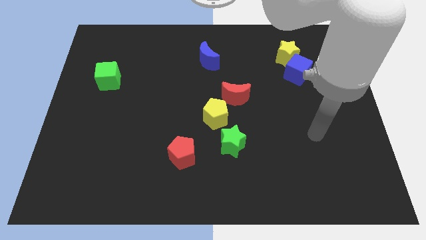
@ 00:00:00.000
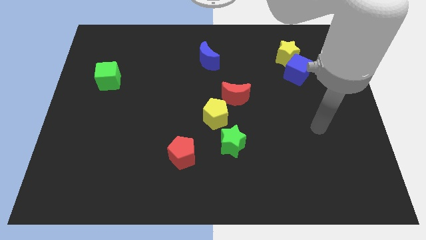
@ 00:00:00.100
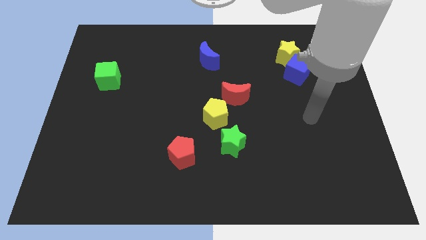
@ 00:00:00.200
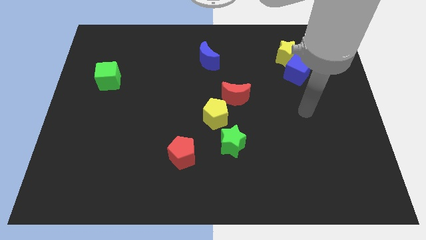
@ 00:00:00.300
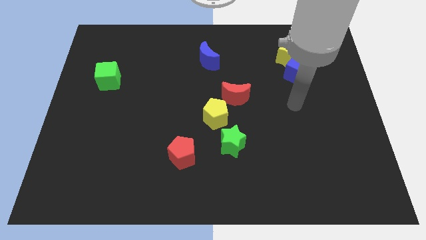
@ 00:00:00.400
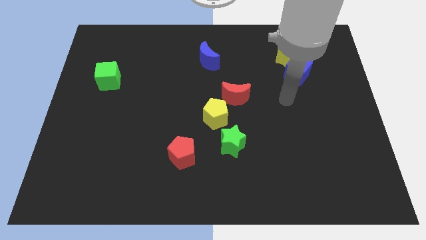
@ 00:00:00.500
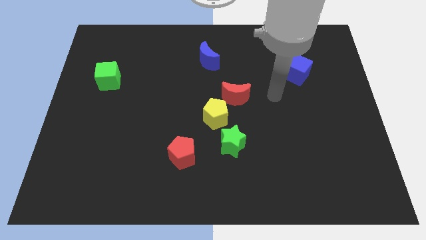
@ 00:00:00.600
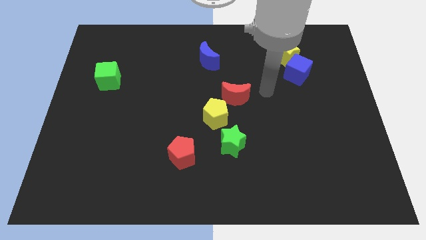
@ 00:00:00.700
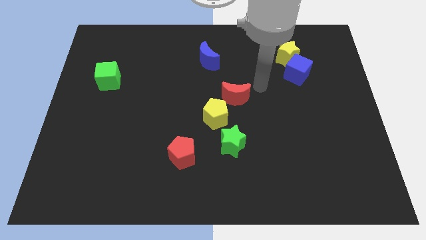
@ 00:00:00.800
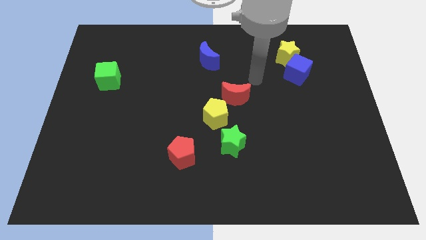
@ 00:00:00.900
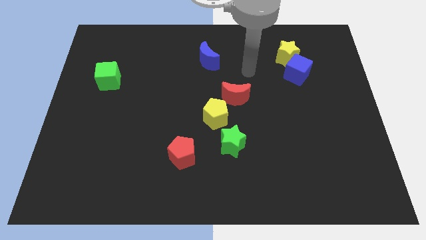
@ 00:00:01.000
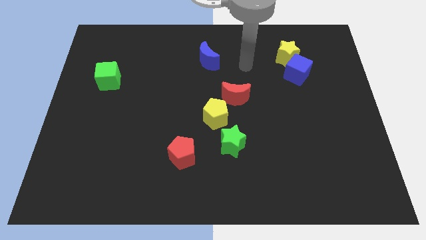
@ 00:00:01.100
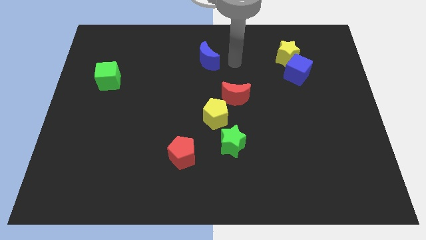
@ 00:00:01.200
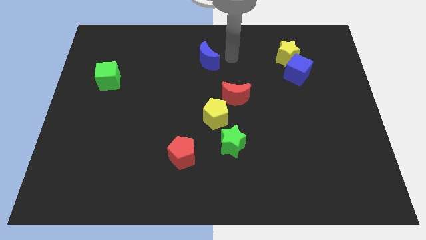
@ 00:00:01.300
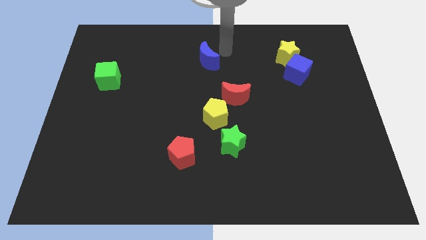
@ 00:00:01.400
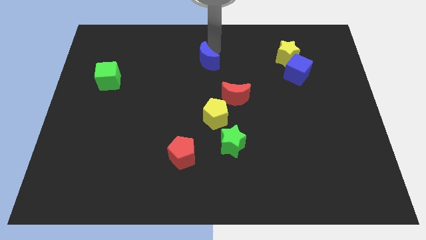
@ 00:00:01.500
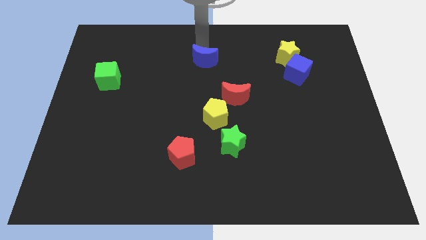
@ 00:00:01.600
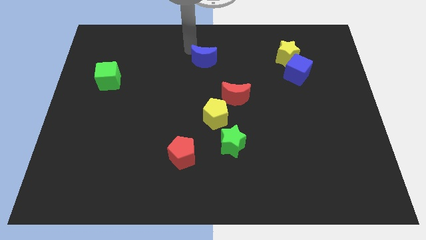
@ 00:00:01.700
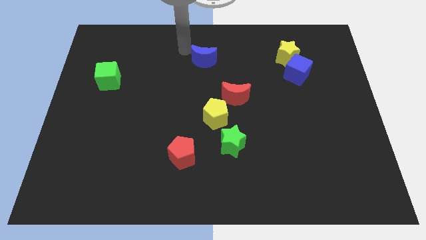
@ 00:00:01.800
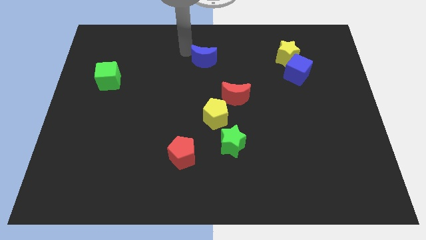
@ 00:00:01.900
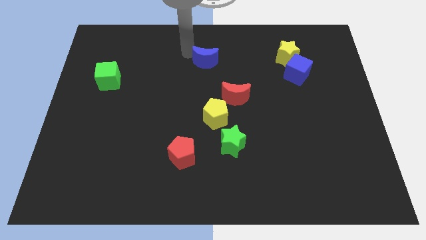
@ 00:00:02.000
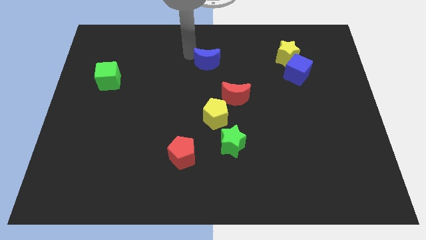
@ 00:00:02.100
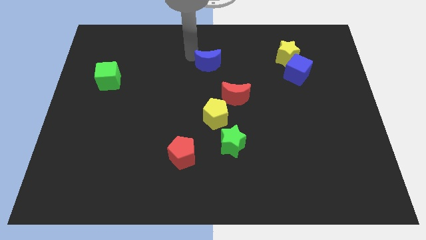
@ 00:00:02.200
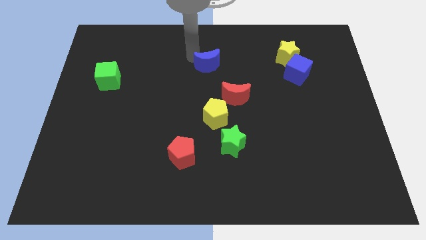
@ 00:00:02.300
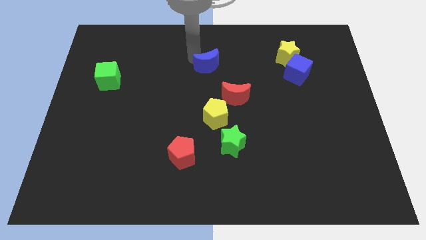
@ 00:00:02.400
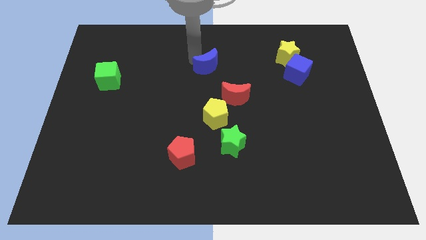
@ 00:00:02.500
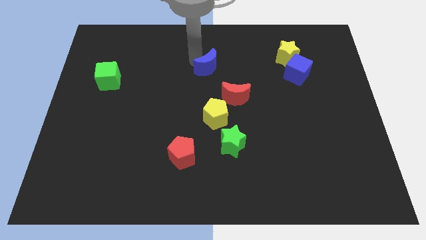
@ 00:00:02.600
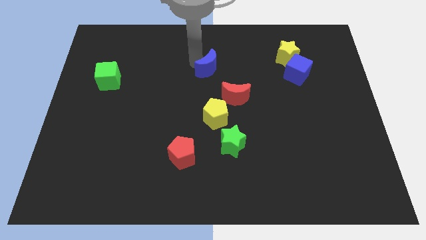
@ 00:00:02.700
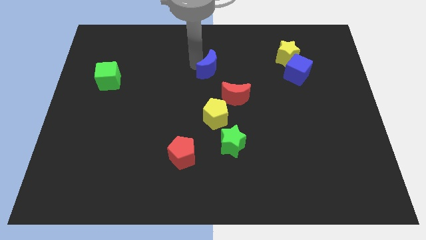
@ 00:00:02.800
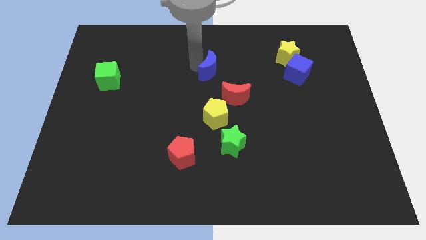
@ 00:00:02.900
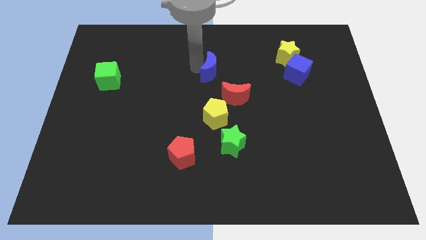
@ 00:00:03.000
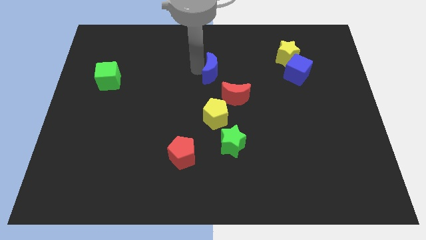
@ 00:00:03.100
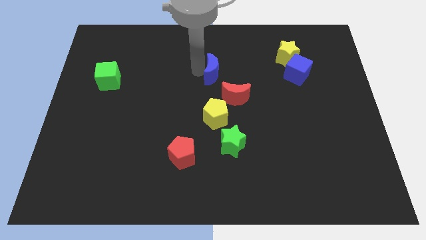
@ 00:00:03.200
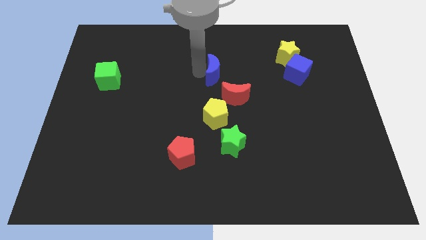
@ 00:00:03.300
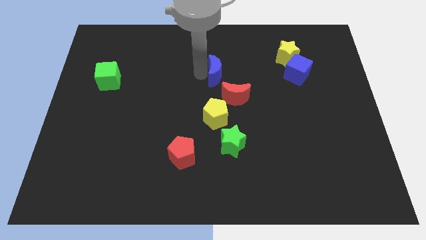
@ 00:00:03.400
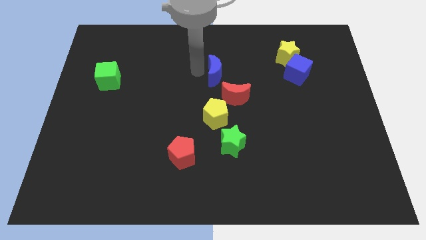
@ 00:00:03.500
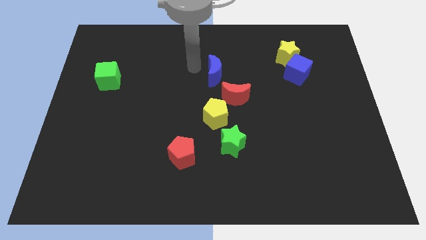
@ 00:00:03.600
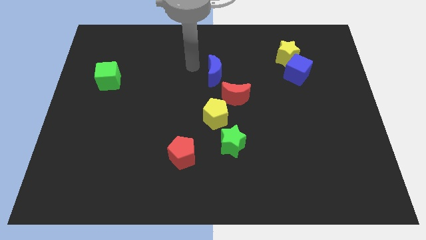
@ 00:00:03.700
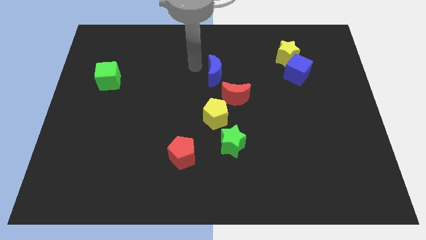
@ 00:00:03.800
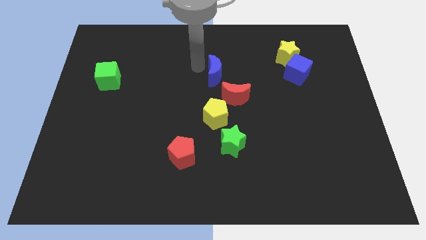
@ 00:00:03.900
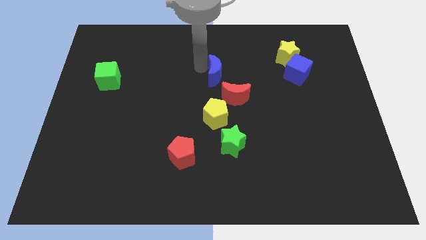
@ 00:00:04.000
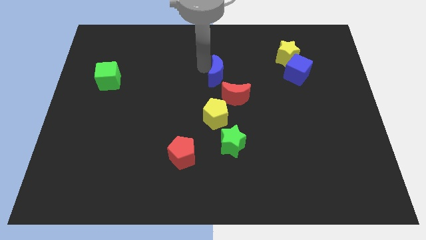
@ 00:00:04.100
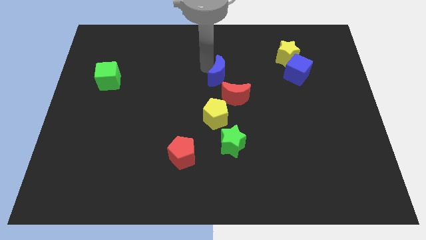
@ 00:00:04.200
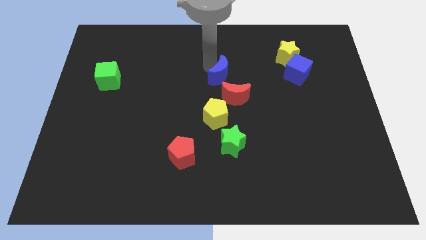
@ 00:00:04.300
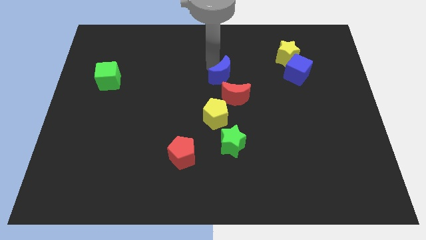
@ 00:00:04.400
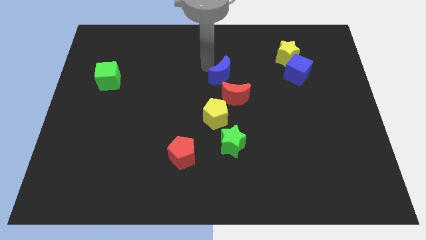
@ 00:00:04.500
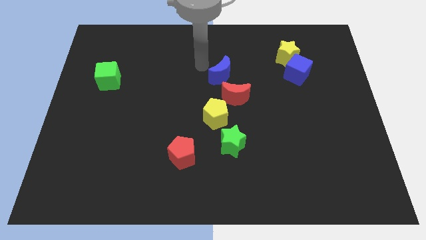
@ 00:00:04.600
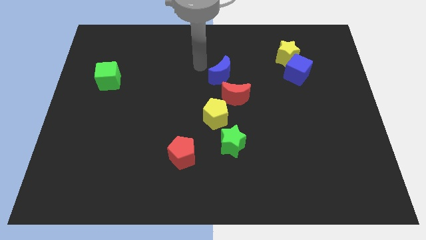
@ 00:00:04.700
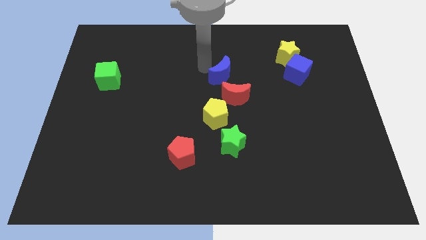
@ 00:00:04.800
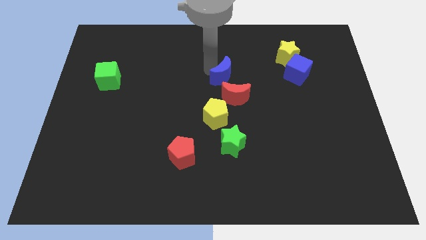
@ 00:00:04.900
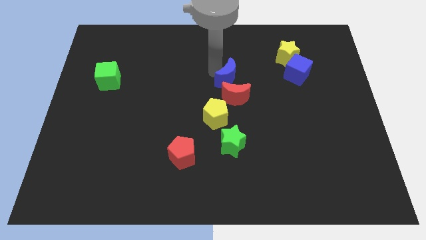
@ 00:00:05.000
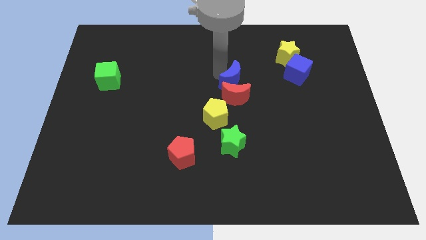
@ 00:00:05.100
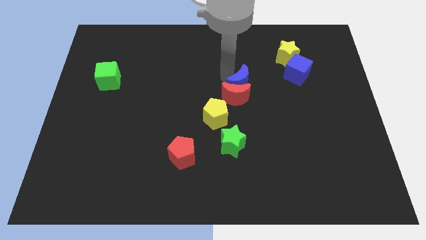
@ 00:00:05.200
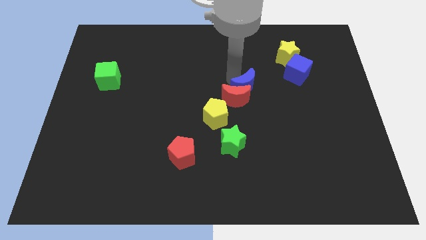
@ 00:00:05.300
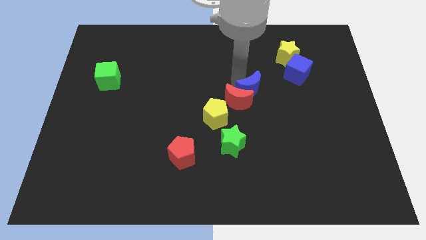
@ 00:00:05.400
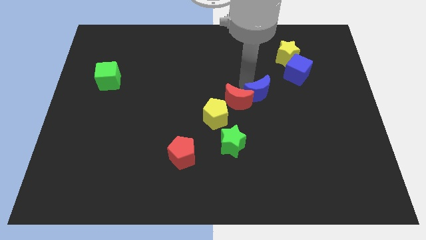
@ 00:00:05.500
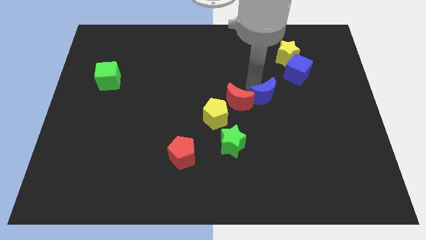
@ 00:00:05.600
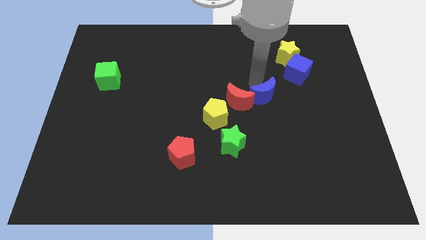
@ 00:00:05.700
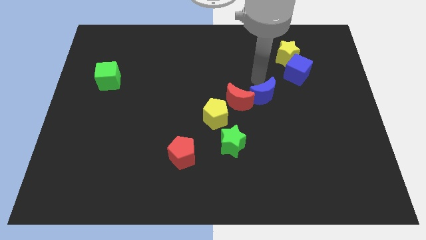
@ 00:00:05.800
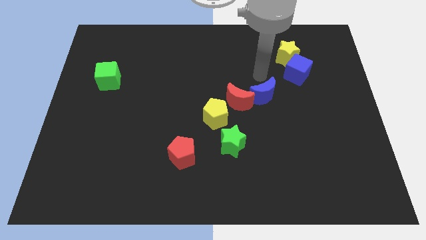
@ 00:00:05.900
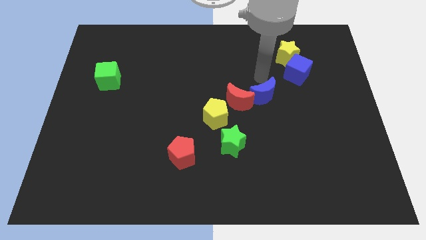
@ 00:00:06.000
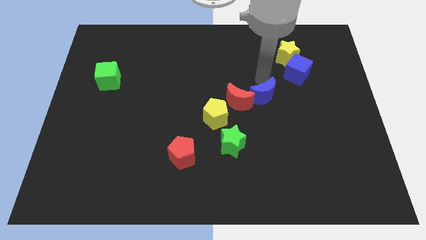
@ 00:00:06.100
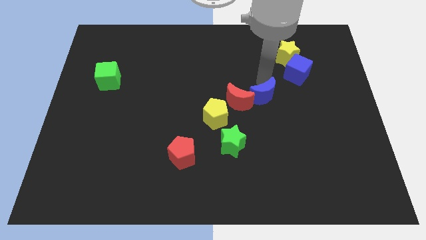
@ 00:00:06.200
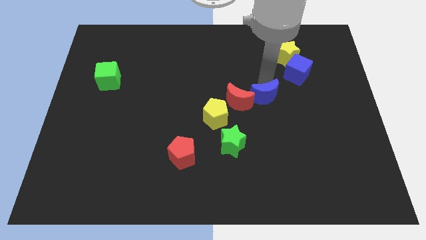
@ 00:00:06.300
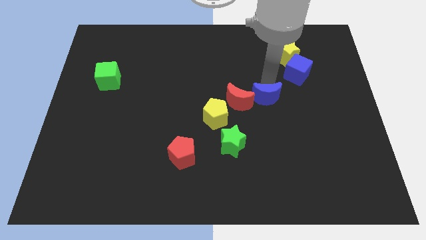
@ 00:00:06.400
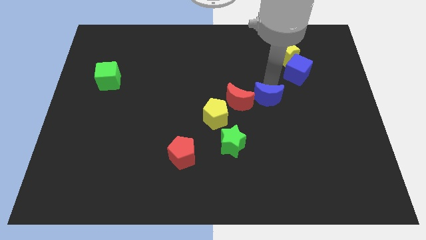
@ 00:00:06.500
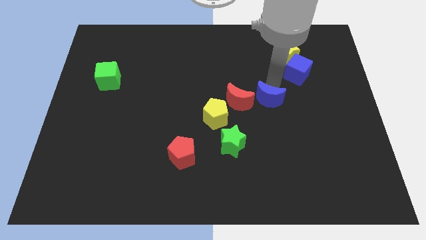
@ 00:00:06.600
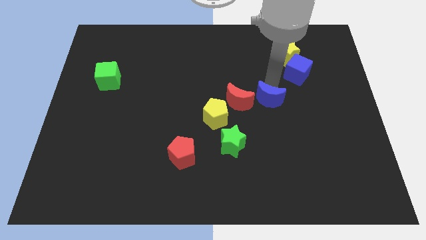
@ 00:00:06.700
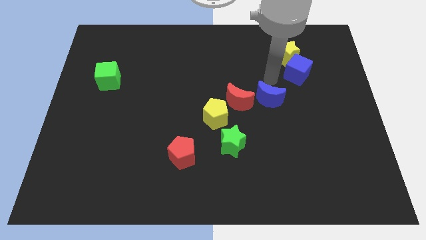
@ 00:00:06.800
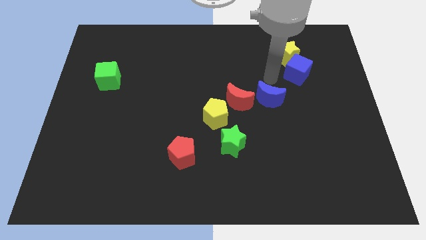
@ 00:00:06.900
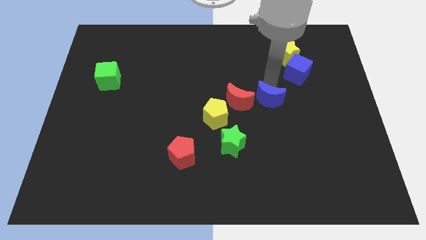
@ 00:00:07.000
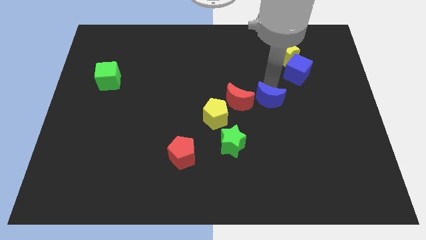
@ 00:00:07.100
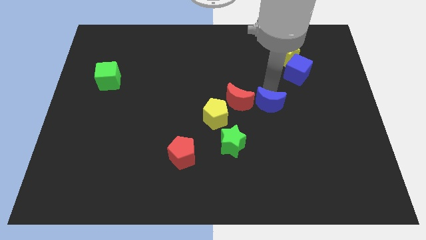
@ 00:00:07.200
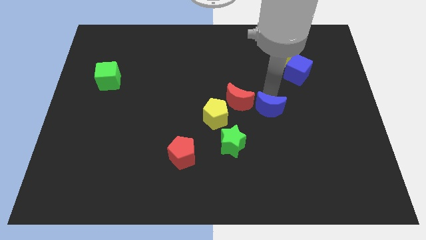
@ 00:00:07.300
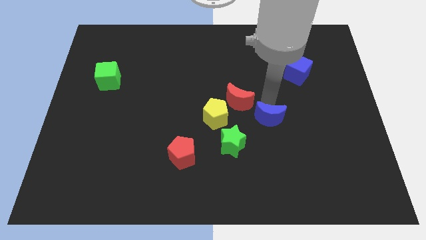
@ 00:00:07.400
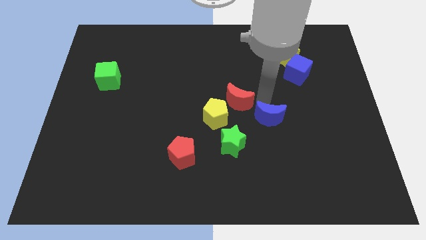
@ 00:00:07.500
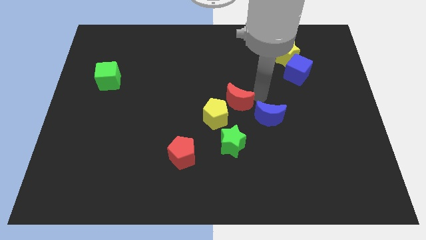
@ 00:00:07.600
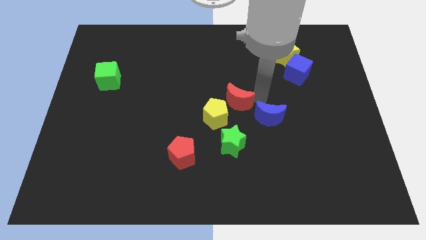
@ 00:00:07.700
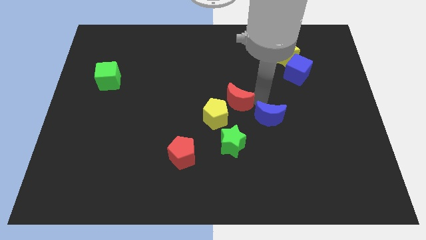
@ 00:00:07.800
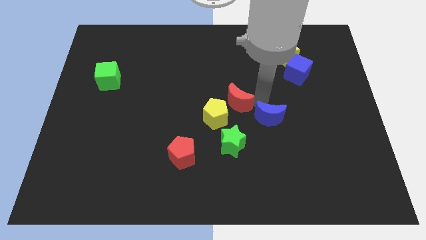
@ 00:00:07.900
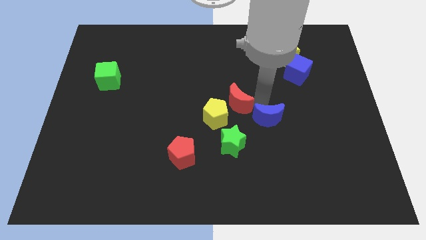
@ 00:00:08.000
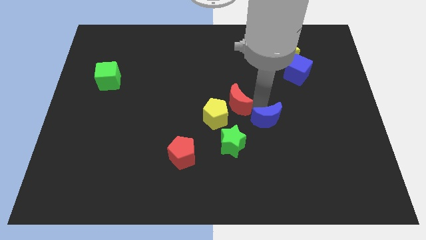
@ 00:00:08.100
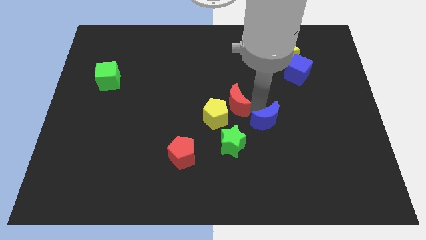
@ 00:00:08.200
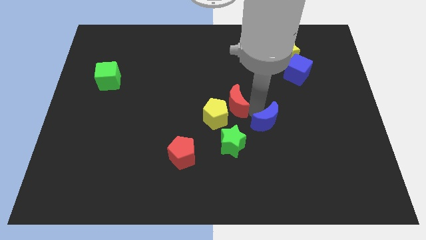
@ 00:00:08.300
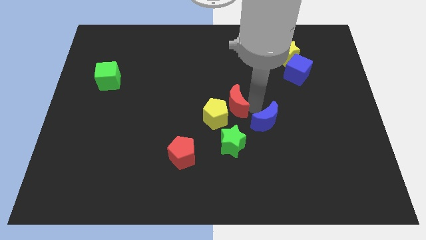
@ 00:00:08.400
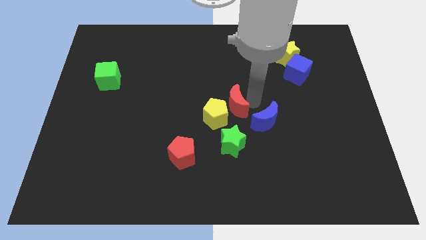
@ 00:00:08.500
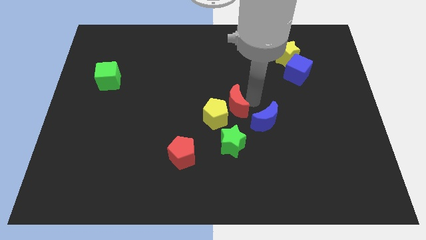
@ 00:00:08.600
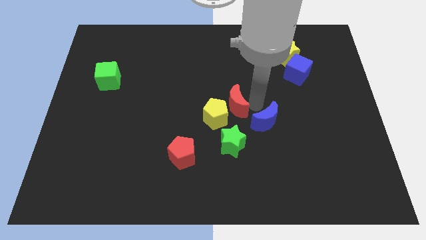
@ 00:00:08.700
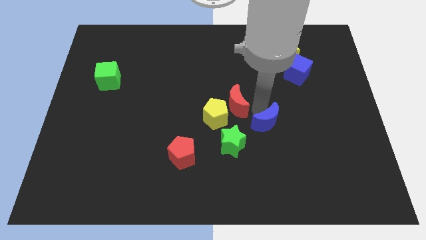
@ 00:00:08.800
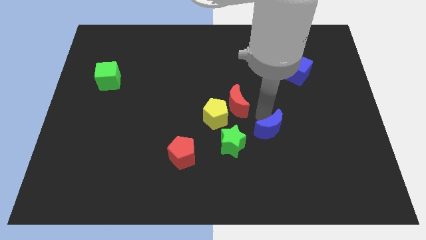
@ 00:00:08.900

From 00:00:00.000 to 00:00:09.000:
put the blue moon just right of the green star
